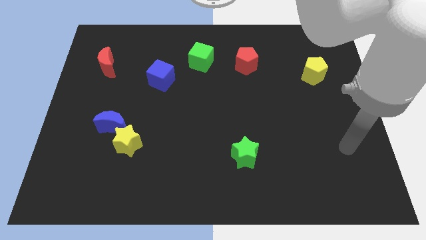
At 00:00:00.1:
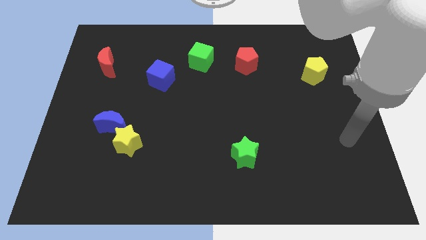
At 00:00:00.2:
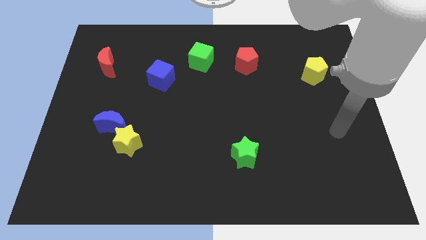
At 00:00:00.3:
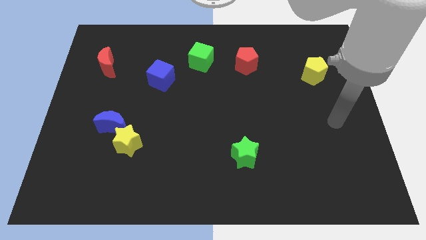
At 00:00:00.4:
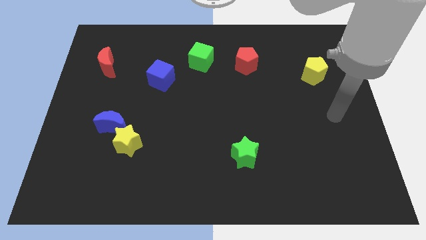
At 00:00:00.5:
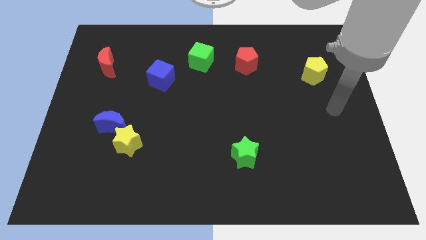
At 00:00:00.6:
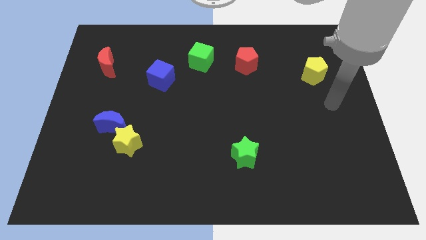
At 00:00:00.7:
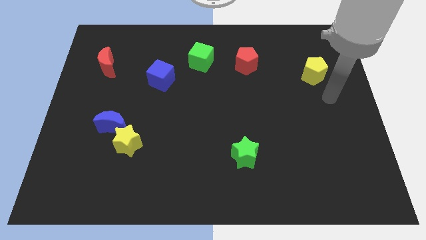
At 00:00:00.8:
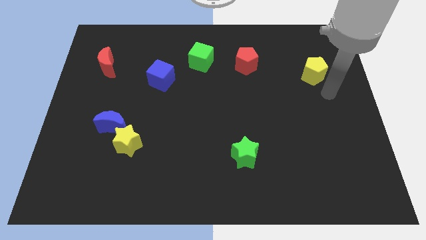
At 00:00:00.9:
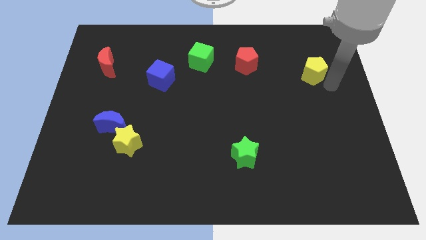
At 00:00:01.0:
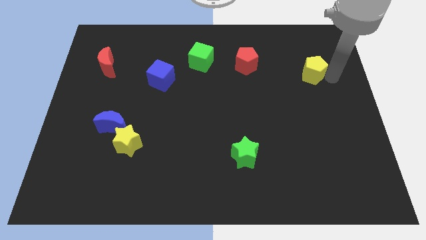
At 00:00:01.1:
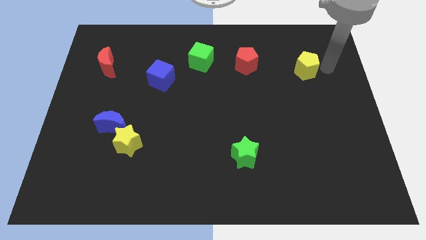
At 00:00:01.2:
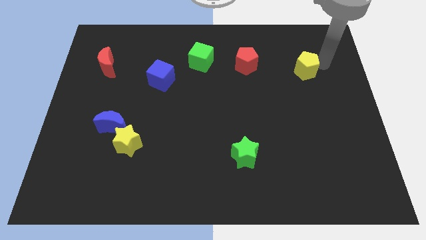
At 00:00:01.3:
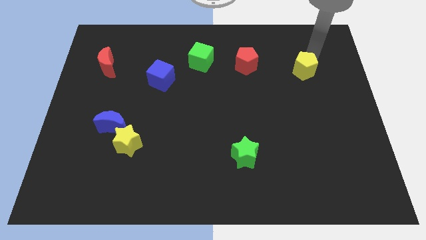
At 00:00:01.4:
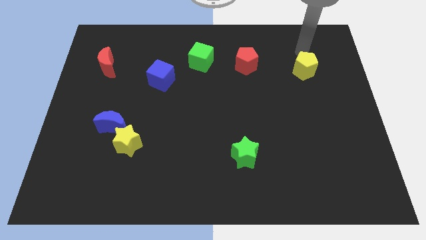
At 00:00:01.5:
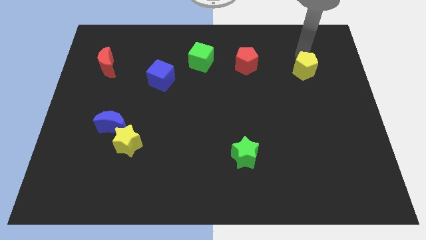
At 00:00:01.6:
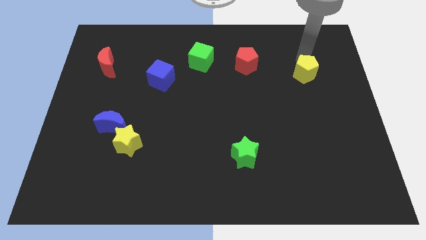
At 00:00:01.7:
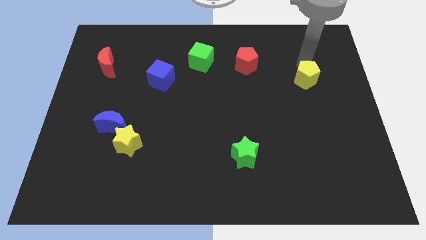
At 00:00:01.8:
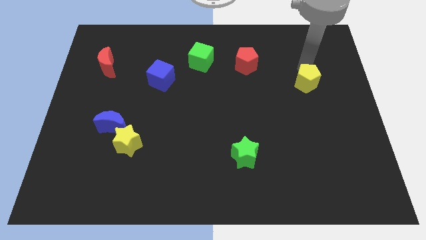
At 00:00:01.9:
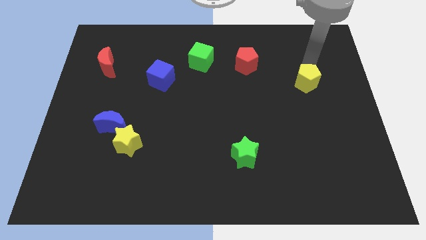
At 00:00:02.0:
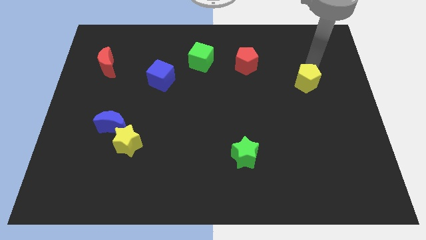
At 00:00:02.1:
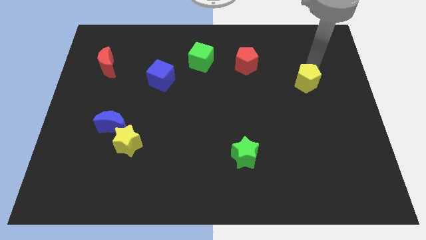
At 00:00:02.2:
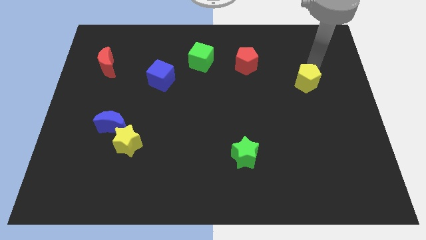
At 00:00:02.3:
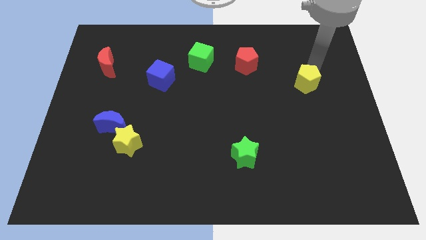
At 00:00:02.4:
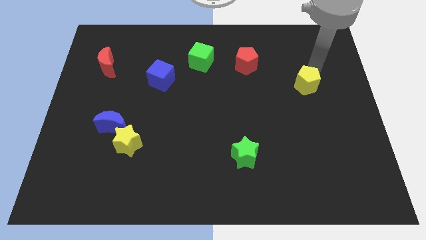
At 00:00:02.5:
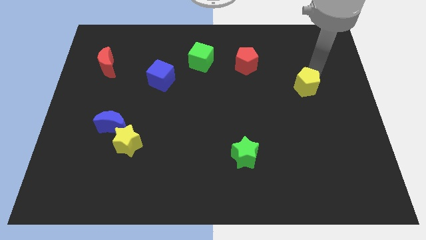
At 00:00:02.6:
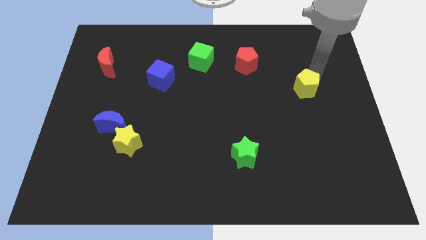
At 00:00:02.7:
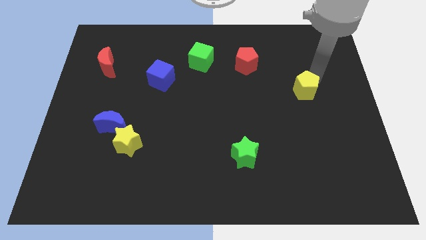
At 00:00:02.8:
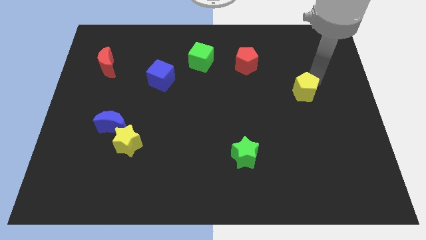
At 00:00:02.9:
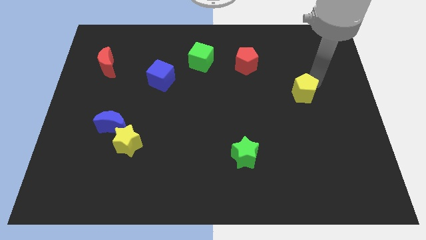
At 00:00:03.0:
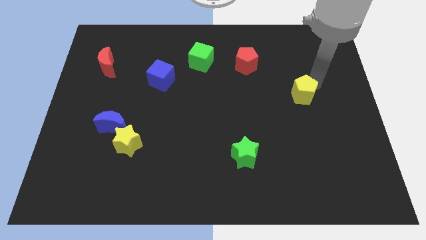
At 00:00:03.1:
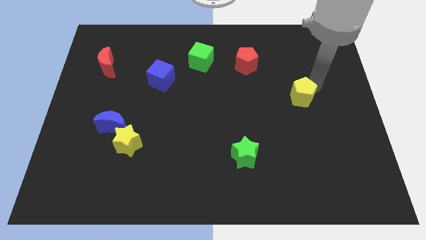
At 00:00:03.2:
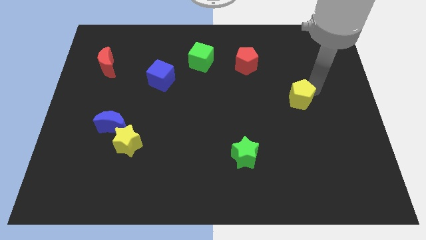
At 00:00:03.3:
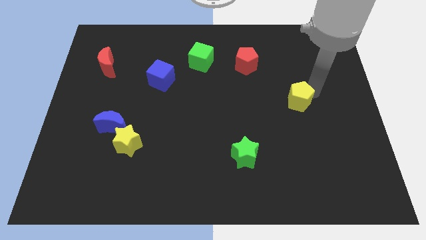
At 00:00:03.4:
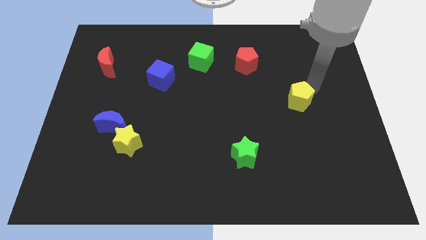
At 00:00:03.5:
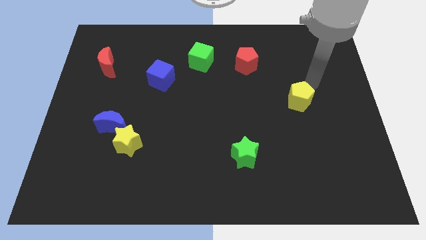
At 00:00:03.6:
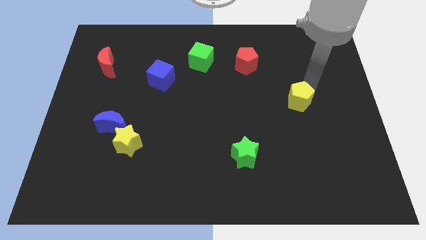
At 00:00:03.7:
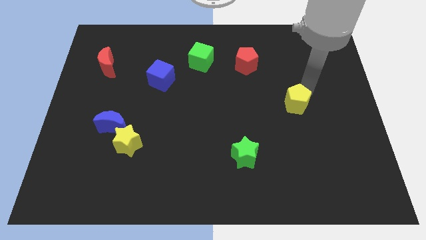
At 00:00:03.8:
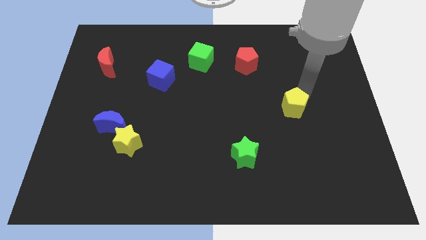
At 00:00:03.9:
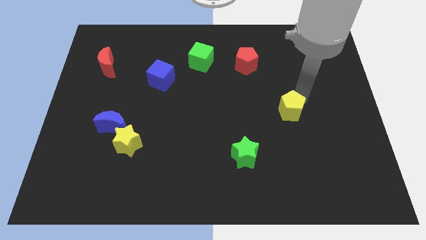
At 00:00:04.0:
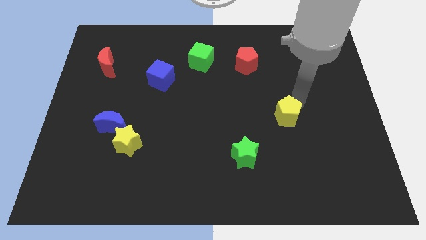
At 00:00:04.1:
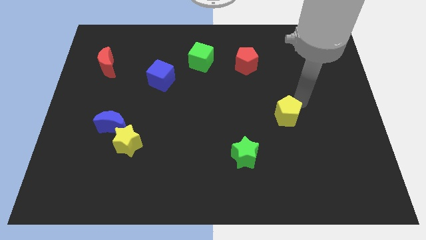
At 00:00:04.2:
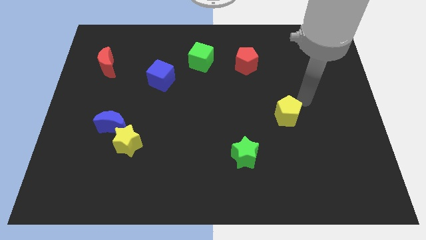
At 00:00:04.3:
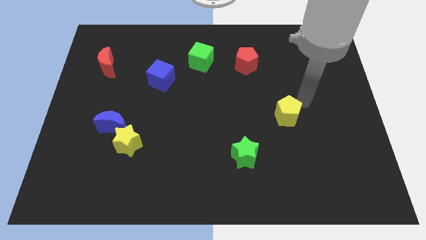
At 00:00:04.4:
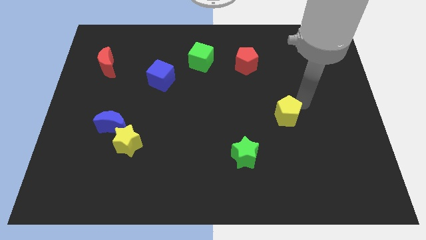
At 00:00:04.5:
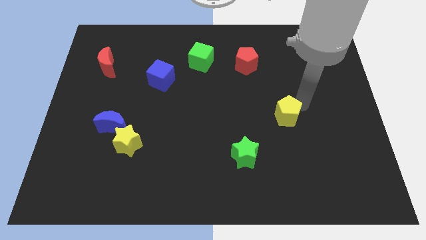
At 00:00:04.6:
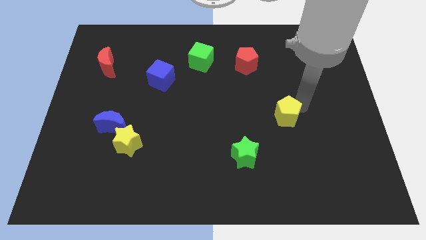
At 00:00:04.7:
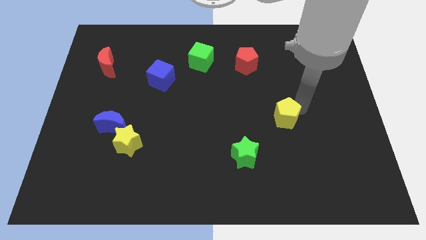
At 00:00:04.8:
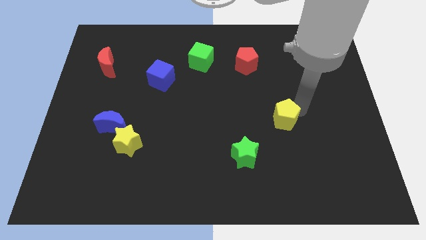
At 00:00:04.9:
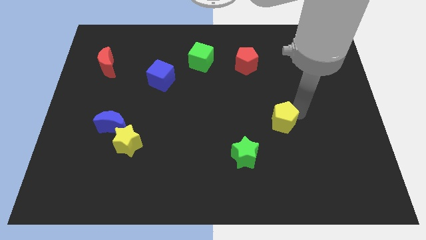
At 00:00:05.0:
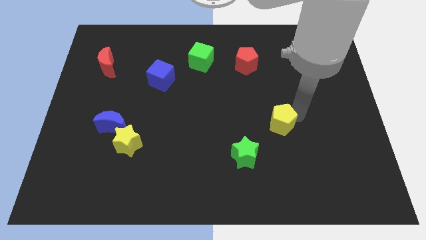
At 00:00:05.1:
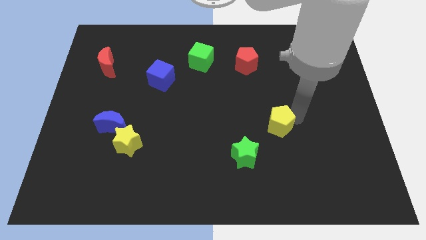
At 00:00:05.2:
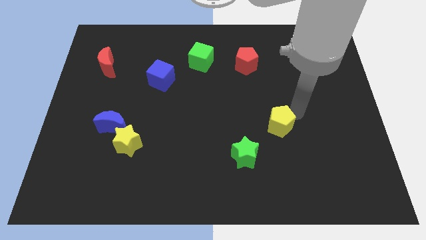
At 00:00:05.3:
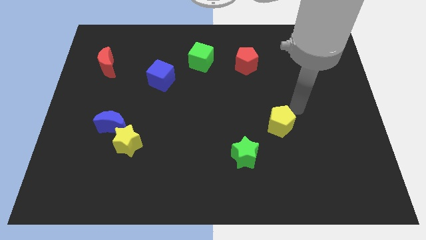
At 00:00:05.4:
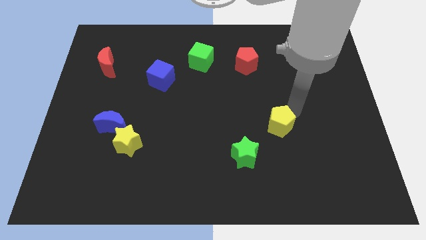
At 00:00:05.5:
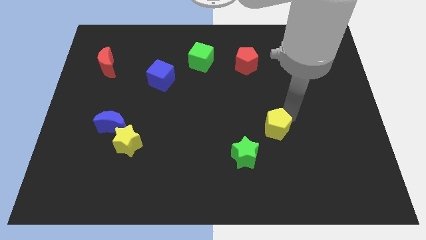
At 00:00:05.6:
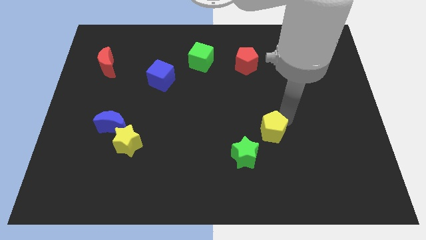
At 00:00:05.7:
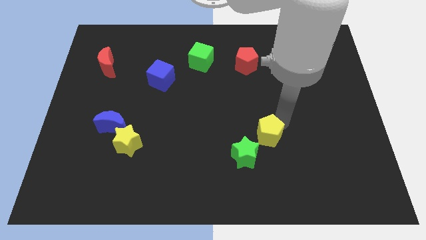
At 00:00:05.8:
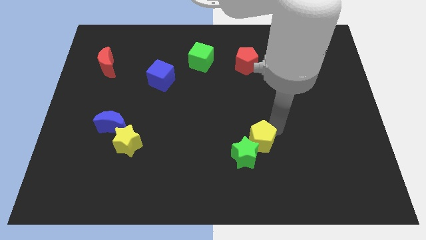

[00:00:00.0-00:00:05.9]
put the yellow pentagon close to the green star

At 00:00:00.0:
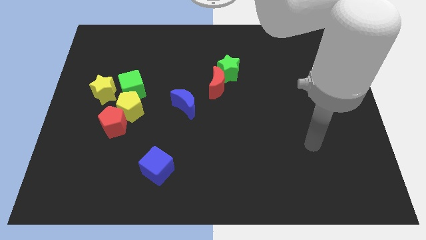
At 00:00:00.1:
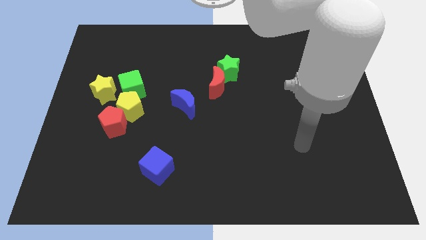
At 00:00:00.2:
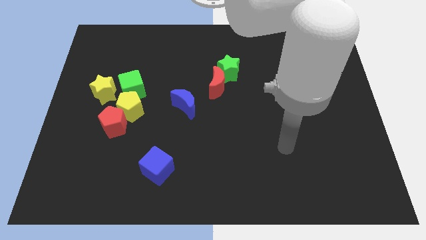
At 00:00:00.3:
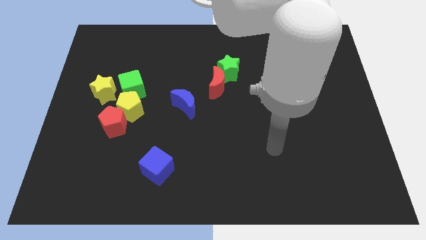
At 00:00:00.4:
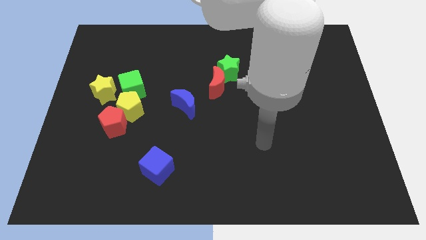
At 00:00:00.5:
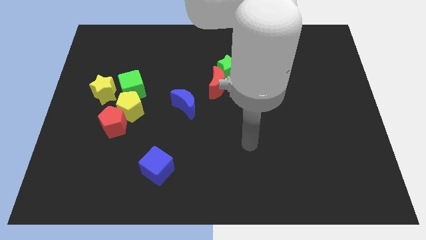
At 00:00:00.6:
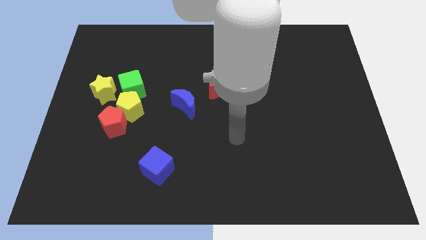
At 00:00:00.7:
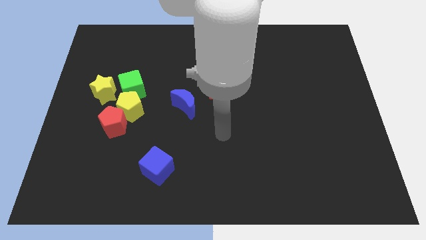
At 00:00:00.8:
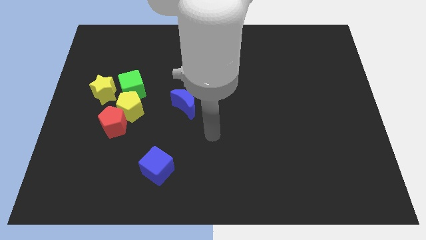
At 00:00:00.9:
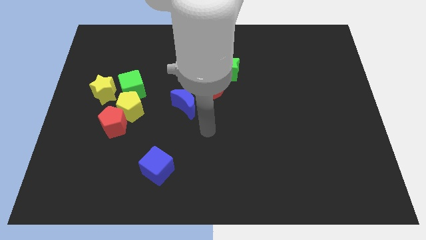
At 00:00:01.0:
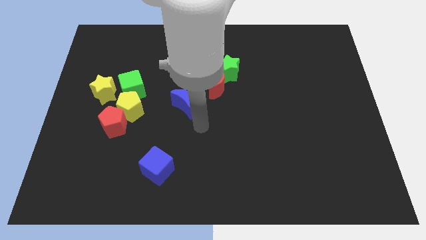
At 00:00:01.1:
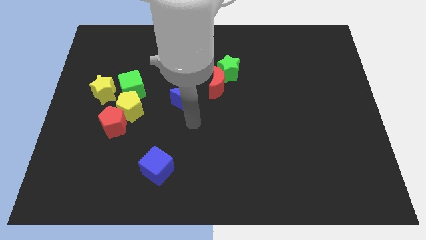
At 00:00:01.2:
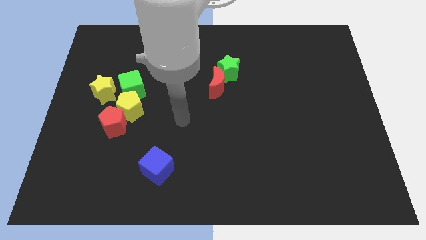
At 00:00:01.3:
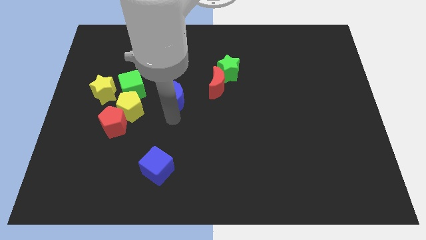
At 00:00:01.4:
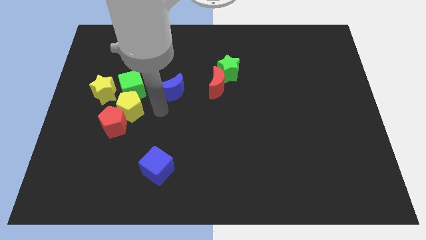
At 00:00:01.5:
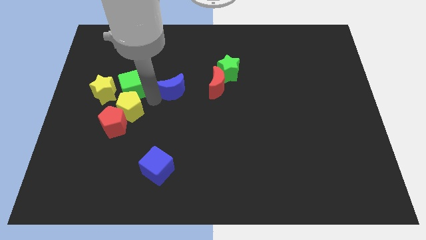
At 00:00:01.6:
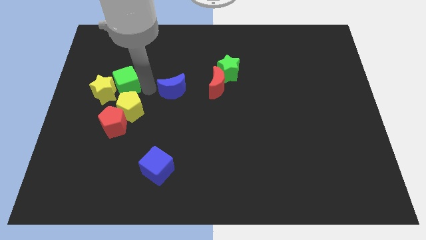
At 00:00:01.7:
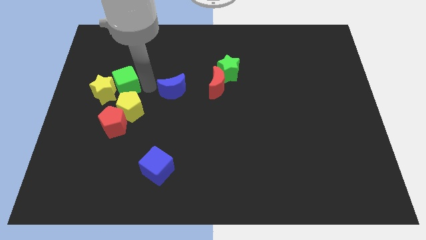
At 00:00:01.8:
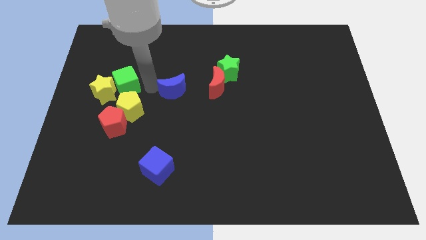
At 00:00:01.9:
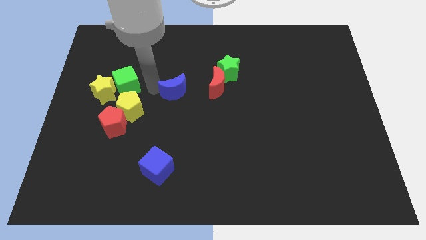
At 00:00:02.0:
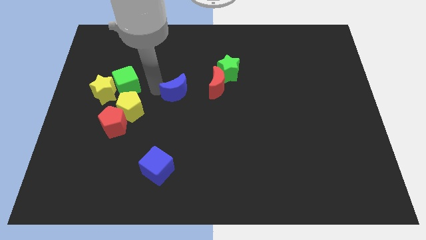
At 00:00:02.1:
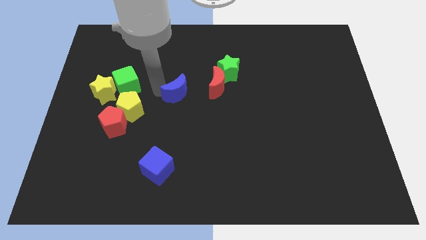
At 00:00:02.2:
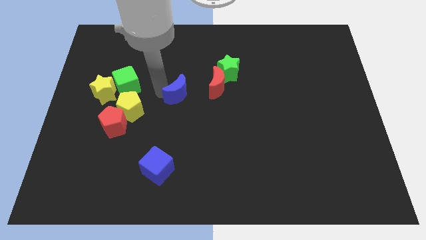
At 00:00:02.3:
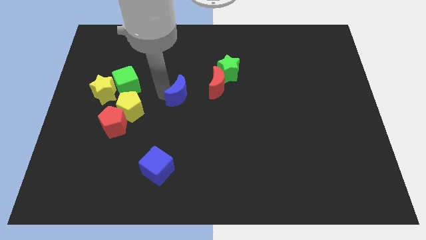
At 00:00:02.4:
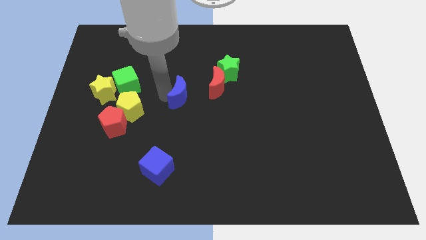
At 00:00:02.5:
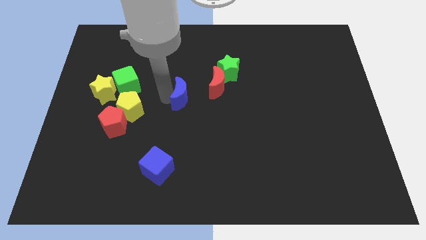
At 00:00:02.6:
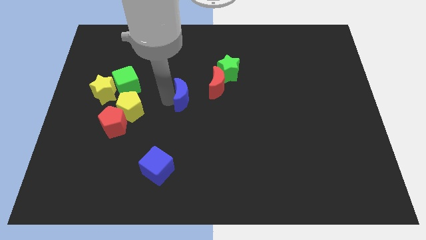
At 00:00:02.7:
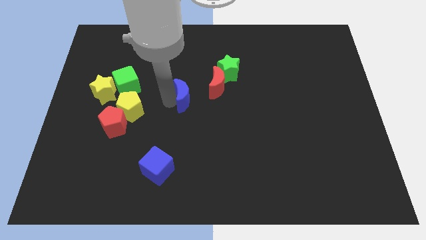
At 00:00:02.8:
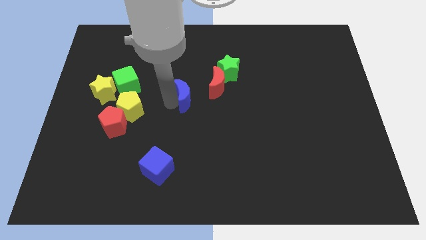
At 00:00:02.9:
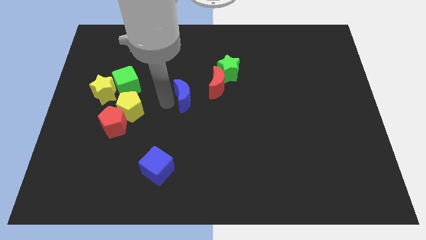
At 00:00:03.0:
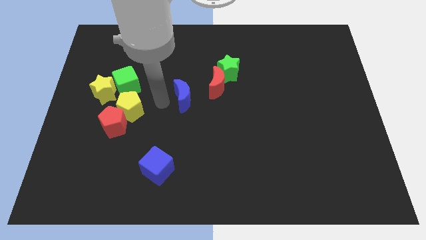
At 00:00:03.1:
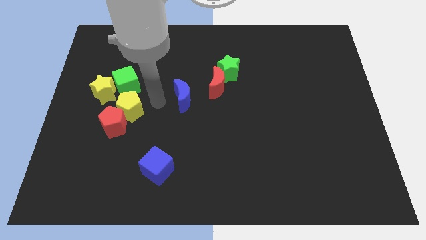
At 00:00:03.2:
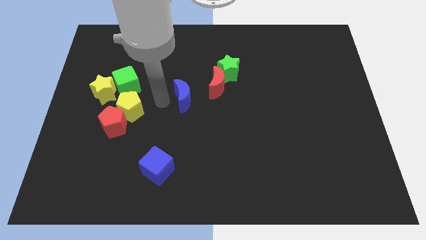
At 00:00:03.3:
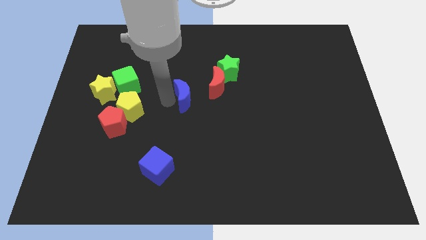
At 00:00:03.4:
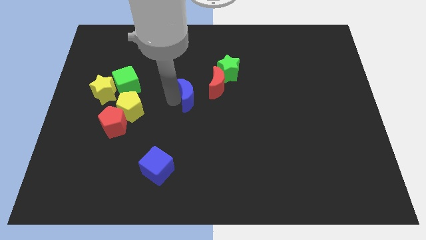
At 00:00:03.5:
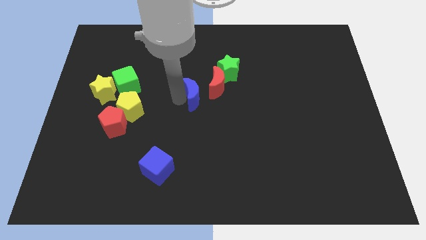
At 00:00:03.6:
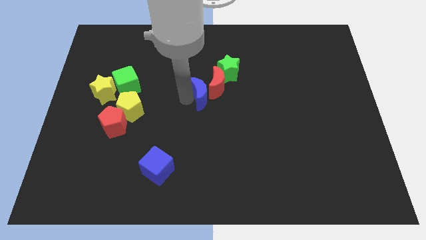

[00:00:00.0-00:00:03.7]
slide the blue moon to the red moon
